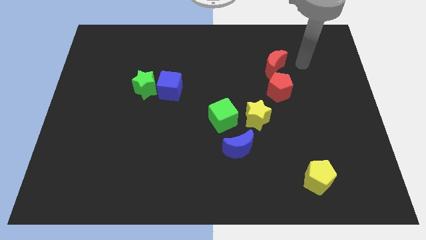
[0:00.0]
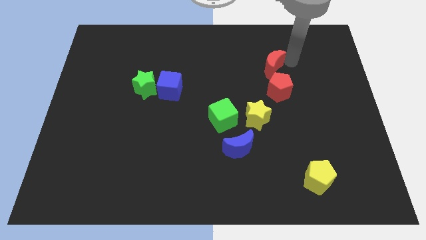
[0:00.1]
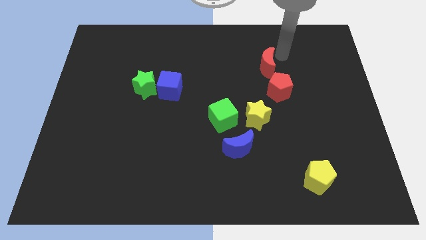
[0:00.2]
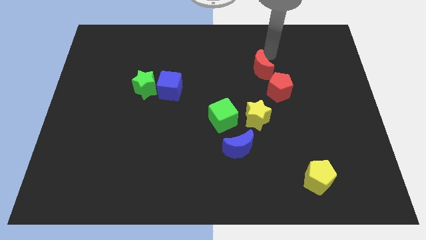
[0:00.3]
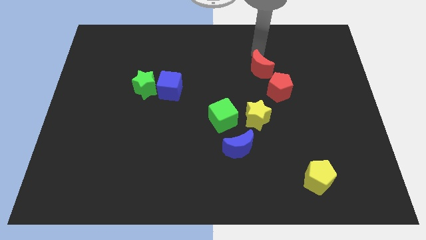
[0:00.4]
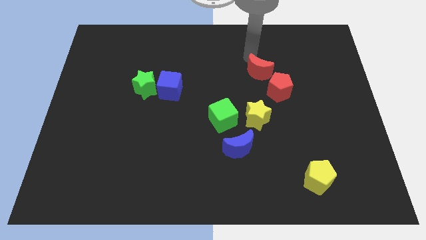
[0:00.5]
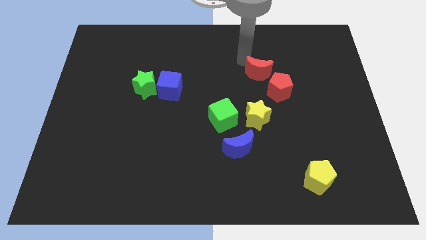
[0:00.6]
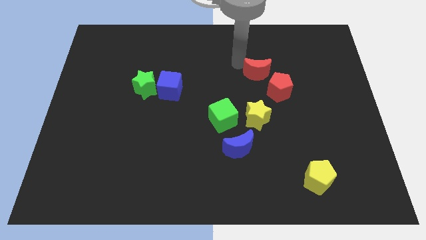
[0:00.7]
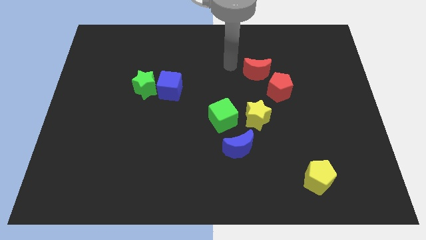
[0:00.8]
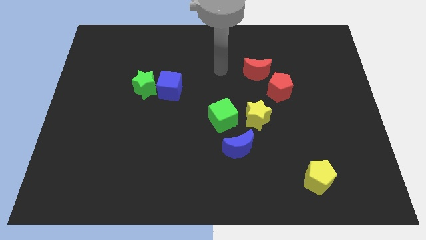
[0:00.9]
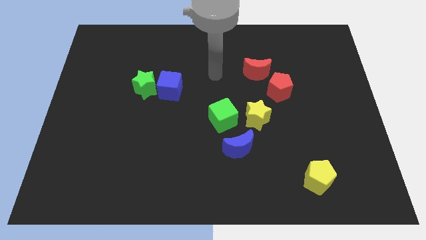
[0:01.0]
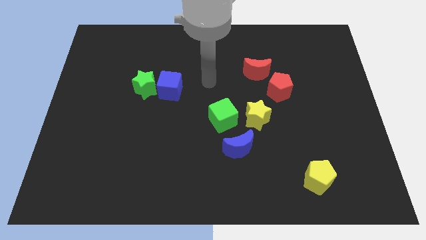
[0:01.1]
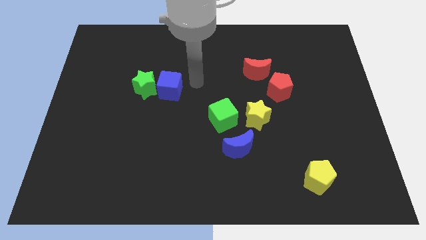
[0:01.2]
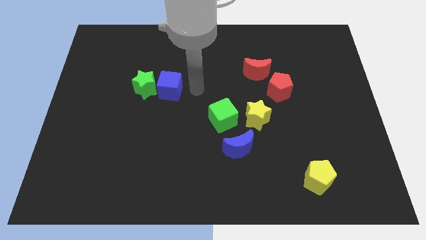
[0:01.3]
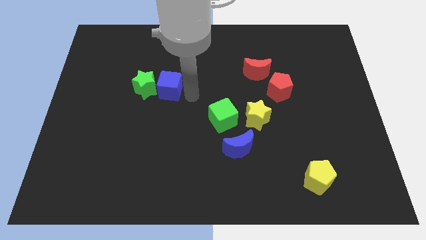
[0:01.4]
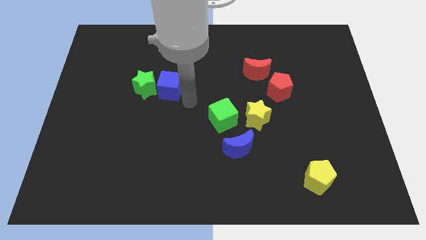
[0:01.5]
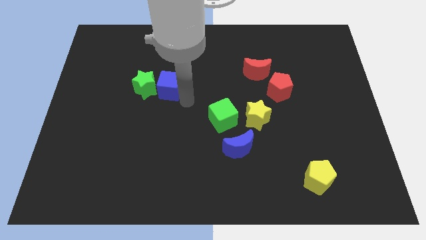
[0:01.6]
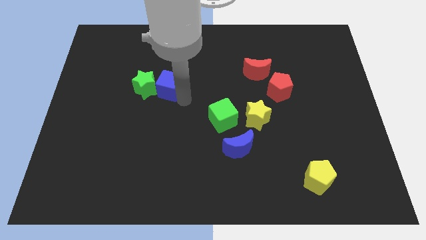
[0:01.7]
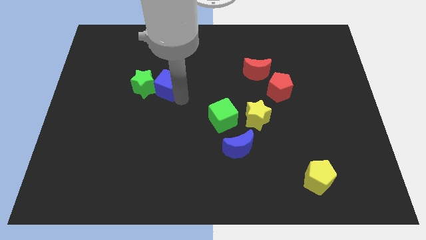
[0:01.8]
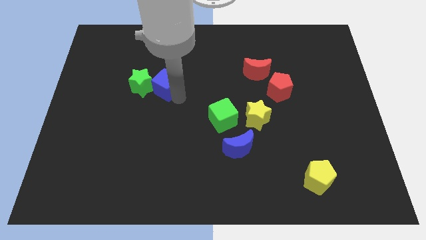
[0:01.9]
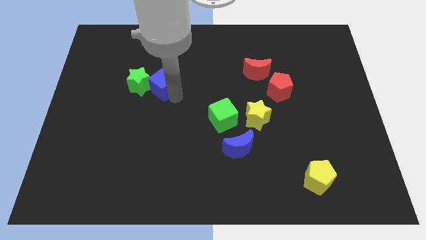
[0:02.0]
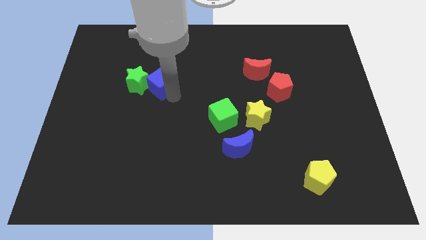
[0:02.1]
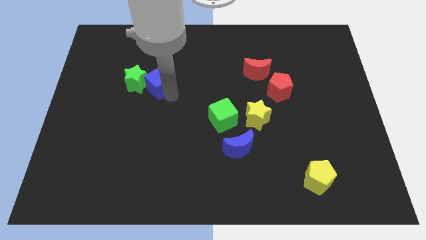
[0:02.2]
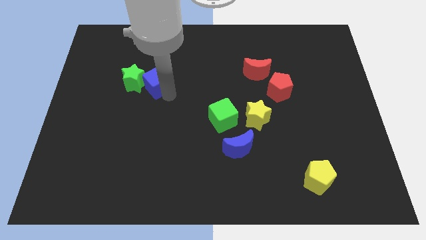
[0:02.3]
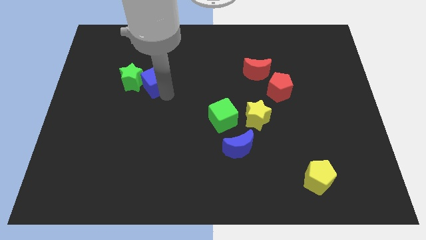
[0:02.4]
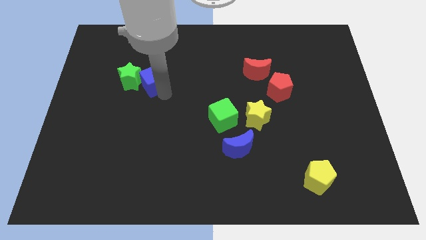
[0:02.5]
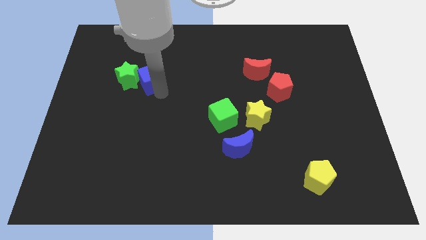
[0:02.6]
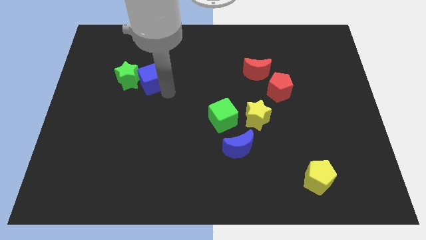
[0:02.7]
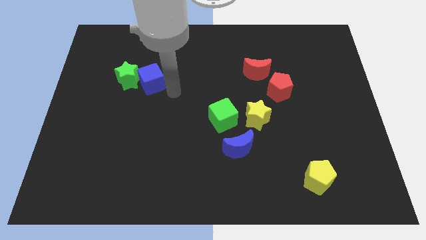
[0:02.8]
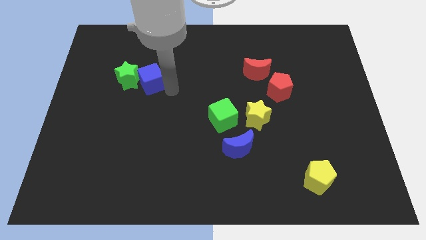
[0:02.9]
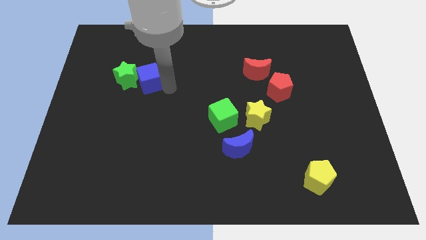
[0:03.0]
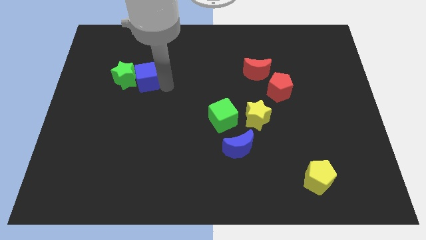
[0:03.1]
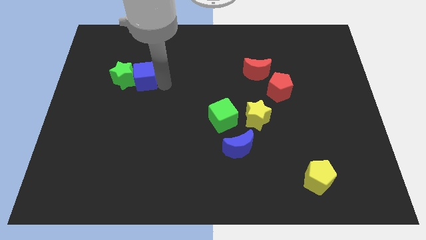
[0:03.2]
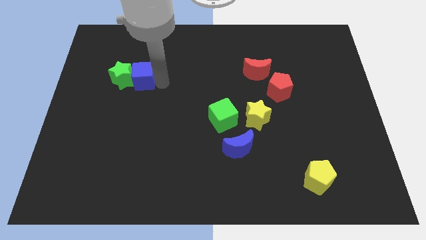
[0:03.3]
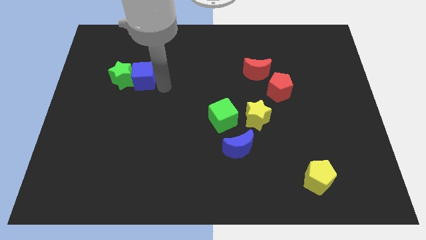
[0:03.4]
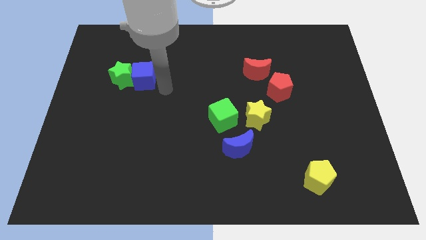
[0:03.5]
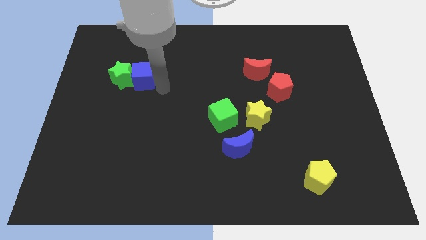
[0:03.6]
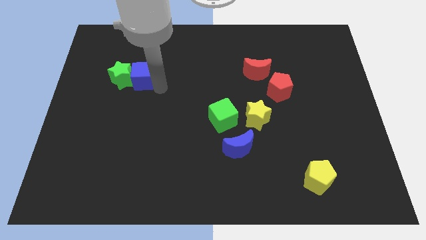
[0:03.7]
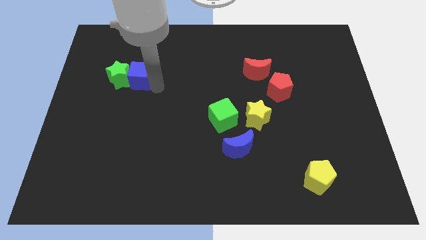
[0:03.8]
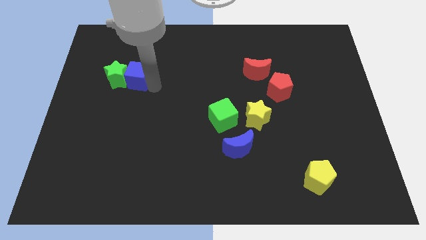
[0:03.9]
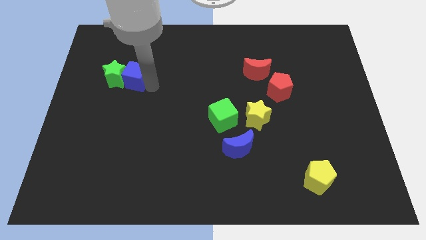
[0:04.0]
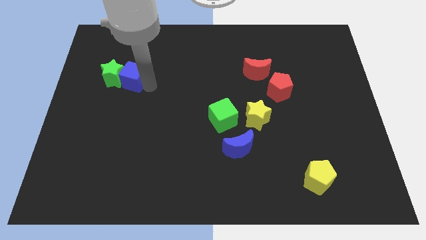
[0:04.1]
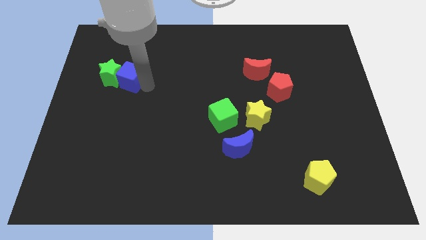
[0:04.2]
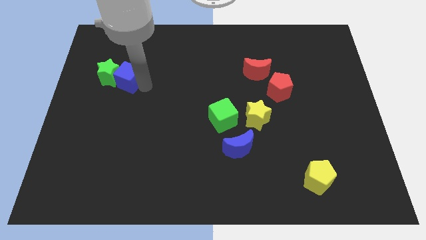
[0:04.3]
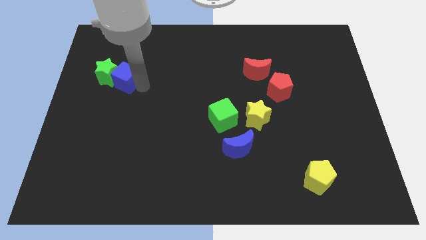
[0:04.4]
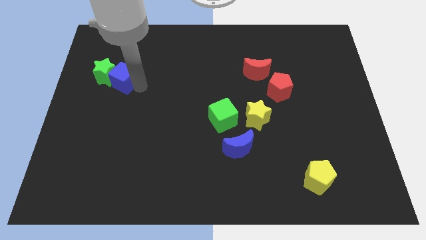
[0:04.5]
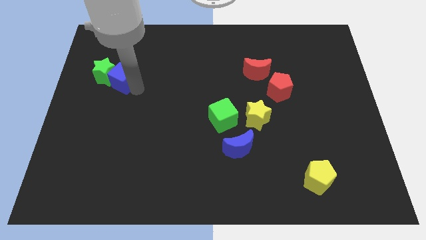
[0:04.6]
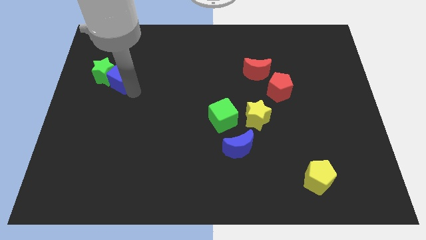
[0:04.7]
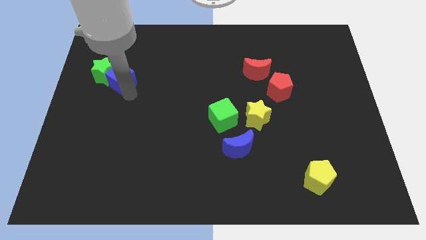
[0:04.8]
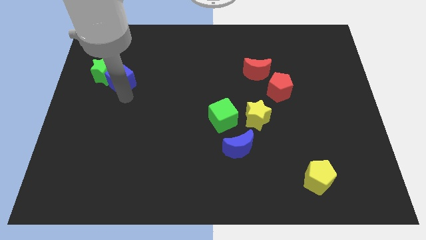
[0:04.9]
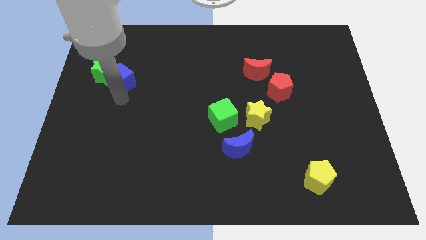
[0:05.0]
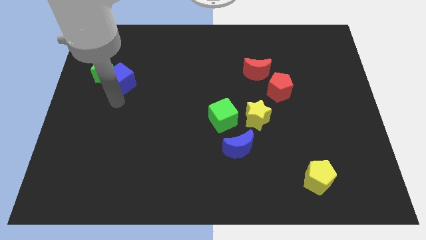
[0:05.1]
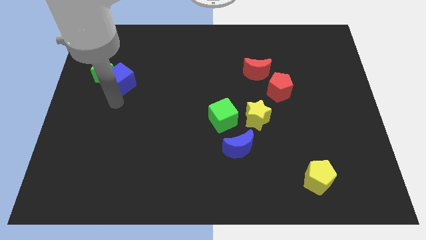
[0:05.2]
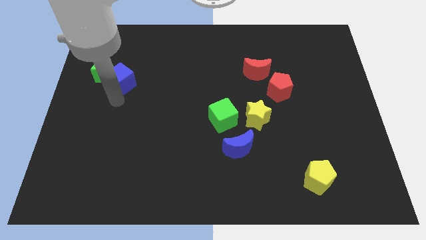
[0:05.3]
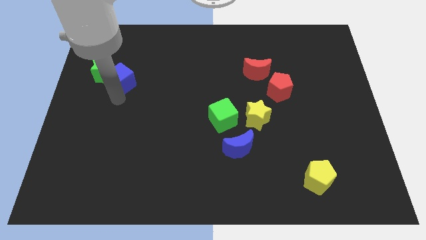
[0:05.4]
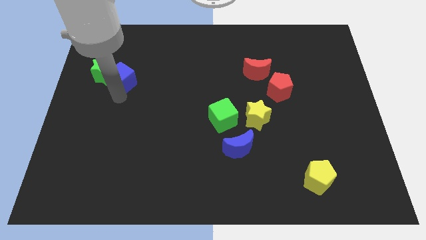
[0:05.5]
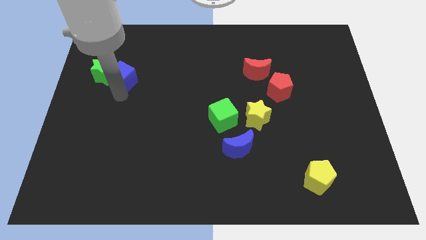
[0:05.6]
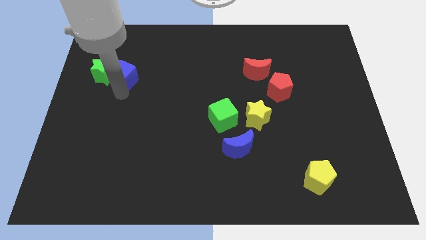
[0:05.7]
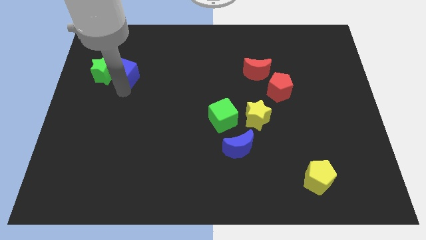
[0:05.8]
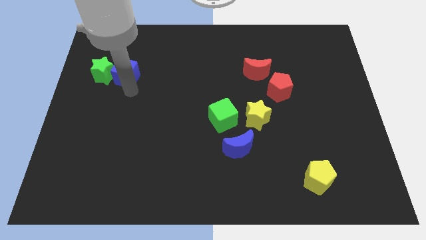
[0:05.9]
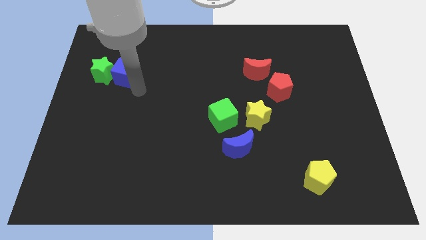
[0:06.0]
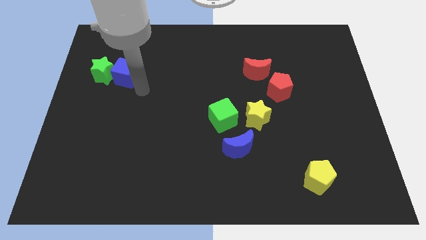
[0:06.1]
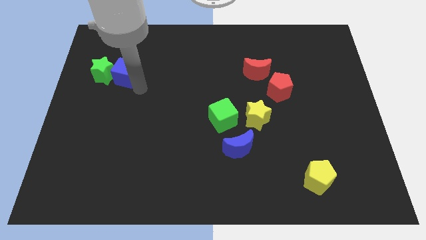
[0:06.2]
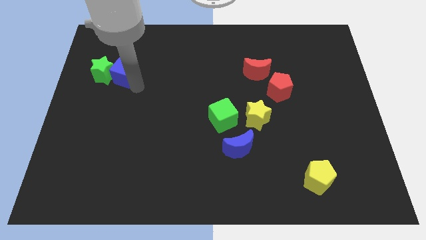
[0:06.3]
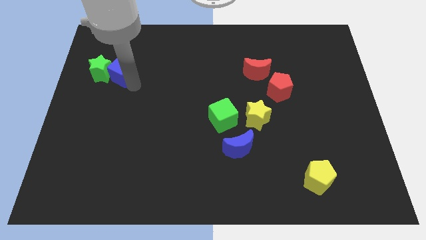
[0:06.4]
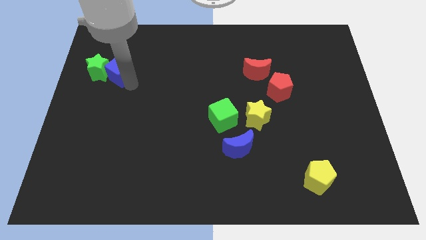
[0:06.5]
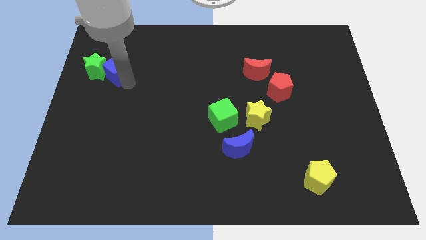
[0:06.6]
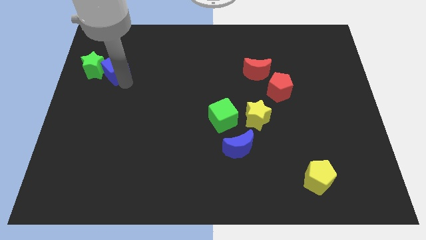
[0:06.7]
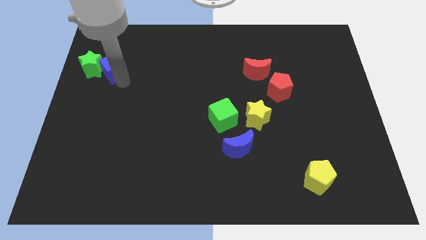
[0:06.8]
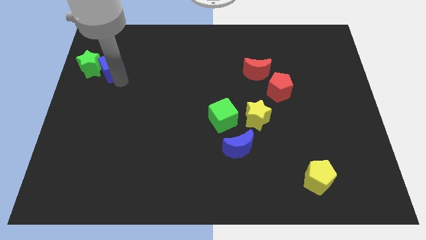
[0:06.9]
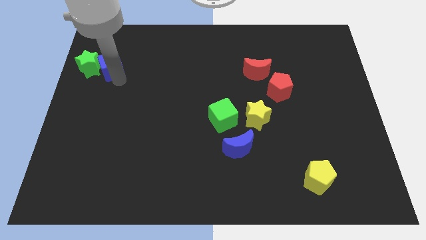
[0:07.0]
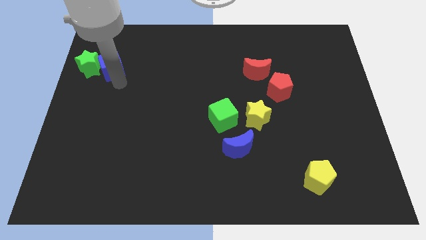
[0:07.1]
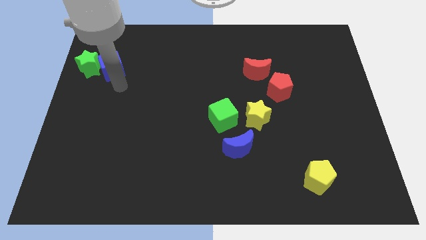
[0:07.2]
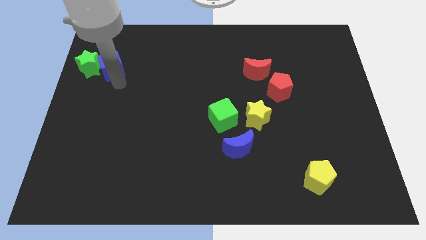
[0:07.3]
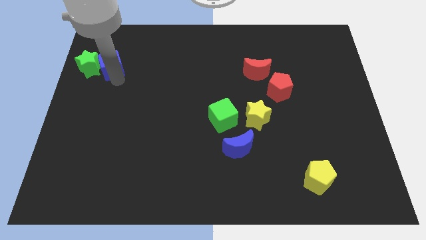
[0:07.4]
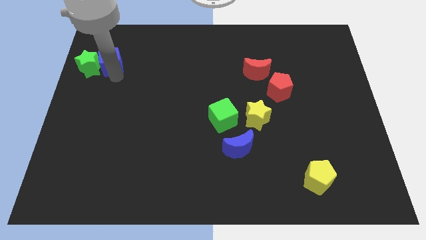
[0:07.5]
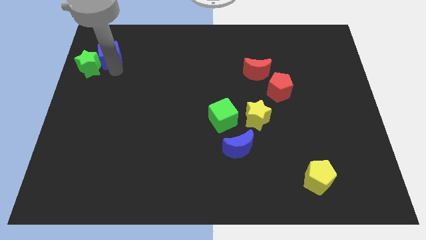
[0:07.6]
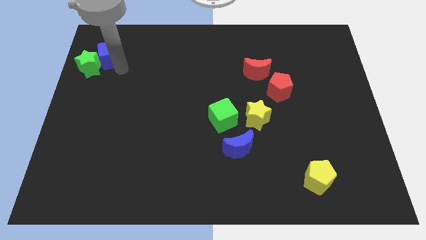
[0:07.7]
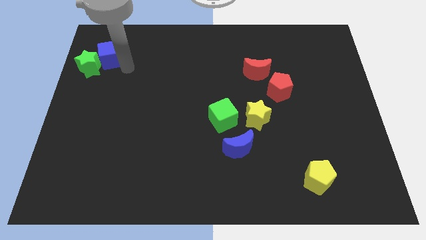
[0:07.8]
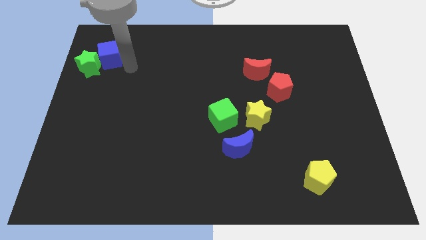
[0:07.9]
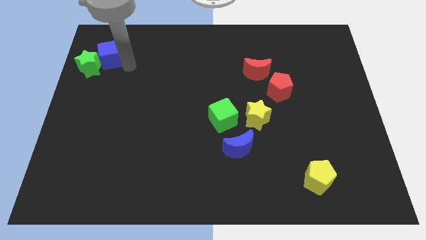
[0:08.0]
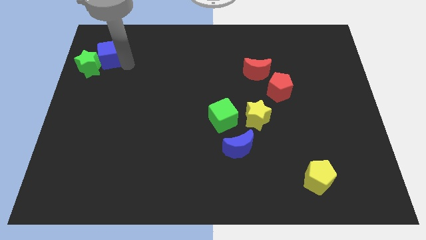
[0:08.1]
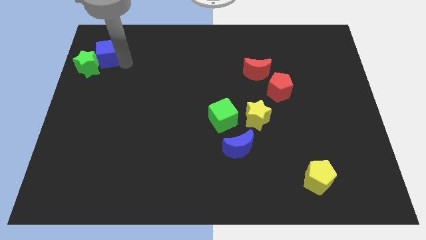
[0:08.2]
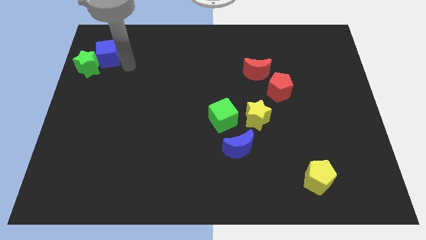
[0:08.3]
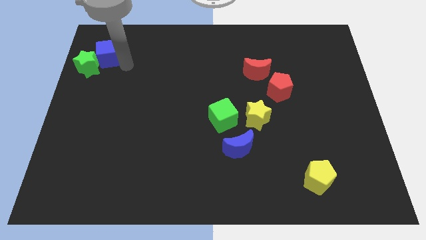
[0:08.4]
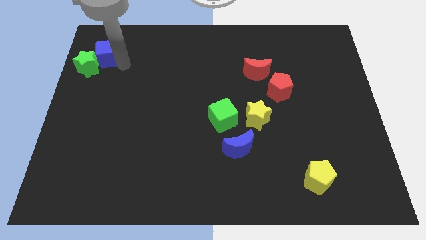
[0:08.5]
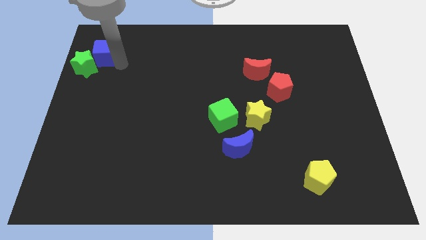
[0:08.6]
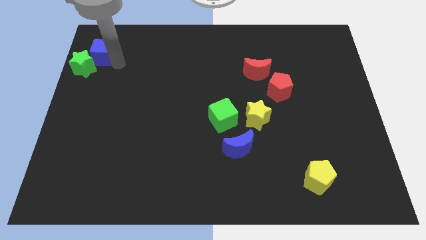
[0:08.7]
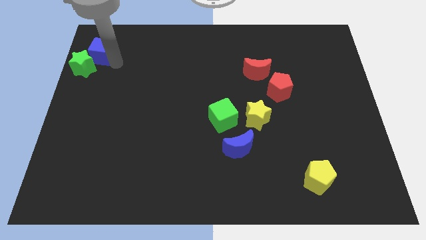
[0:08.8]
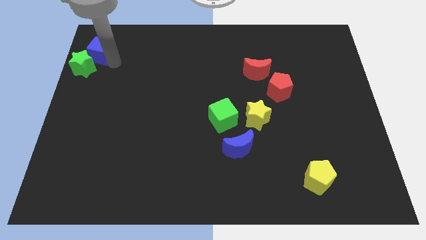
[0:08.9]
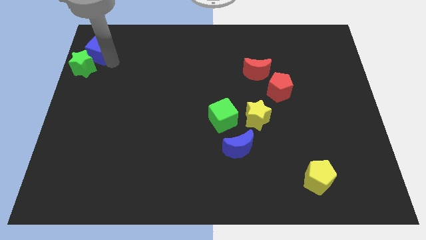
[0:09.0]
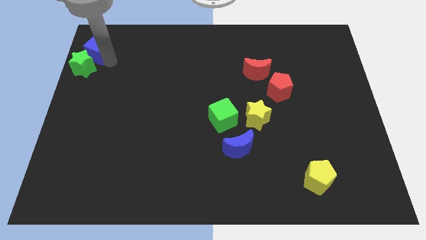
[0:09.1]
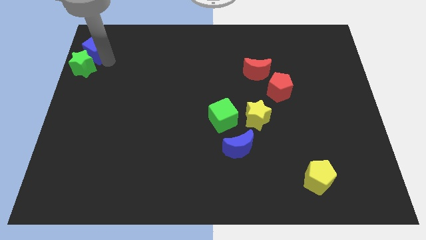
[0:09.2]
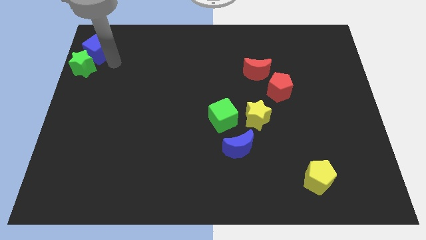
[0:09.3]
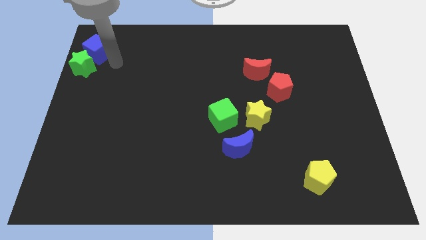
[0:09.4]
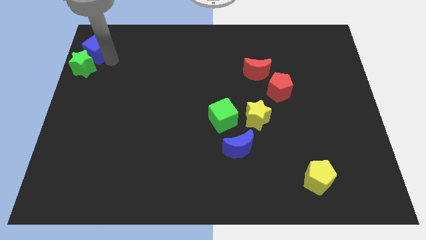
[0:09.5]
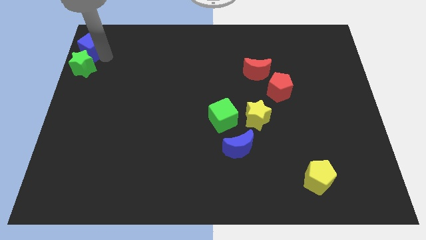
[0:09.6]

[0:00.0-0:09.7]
put the blue cube to the top left of the board
